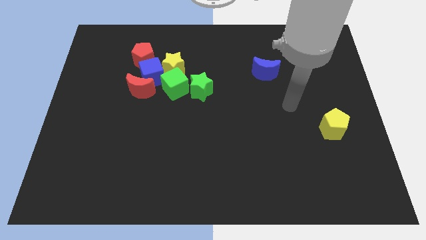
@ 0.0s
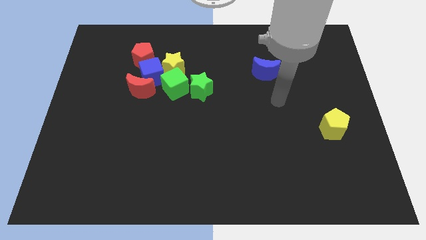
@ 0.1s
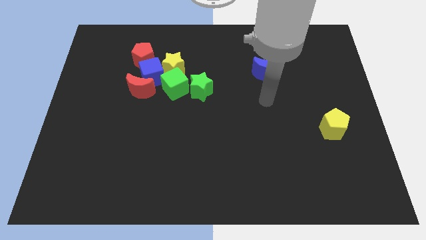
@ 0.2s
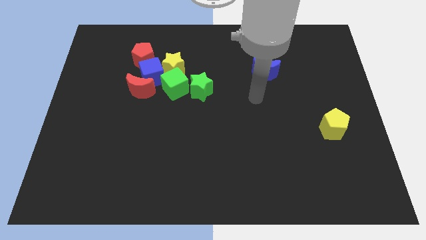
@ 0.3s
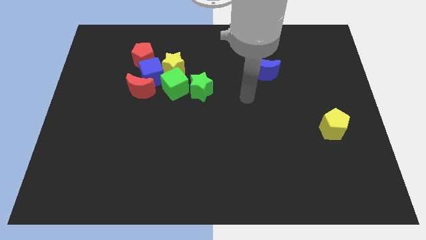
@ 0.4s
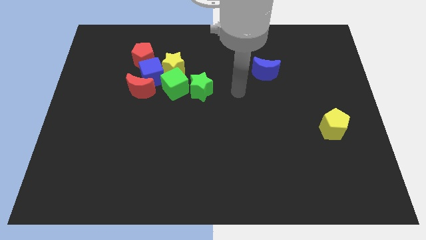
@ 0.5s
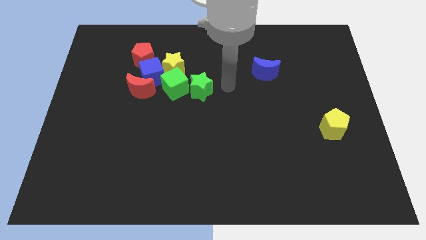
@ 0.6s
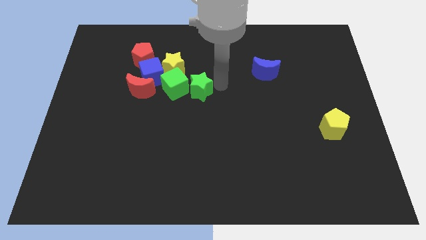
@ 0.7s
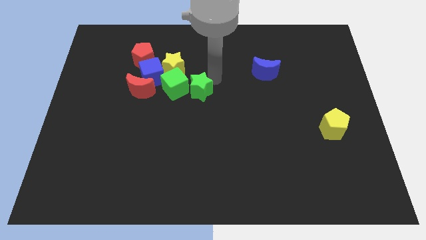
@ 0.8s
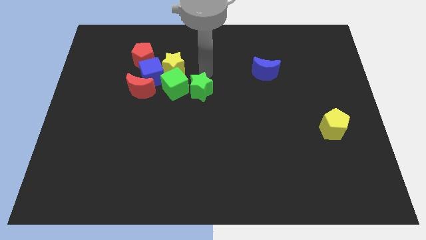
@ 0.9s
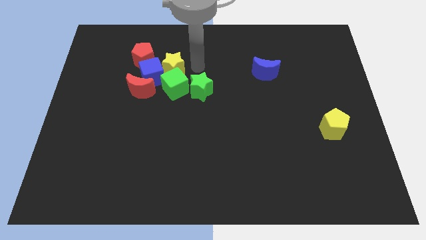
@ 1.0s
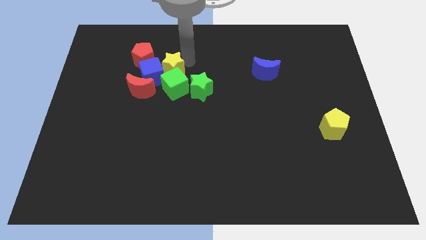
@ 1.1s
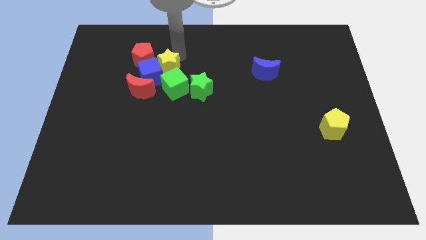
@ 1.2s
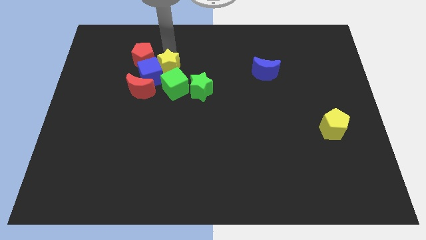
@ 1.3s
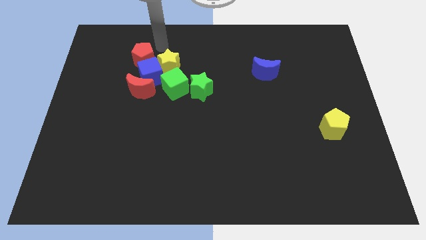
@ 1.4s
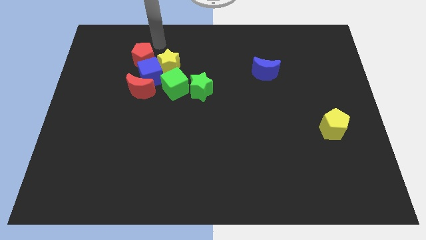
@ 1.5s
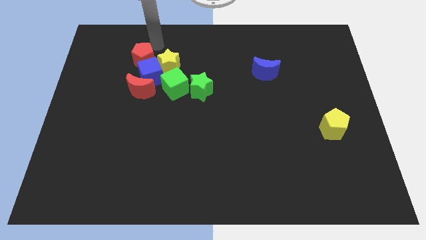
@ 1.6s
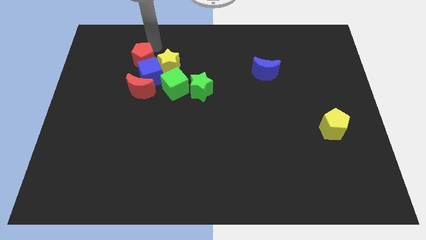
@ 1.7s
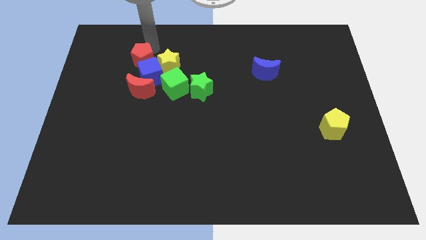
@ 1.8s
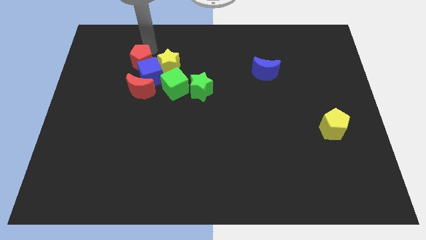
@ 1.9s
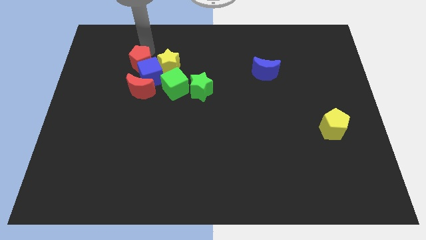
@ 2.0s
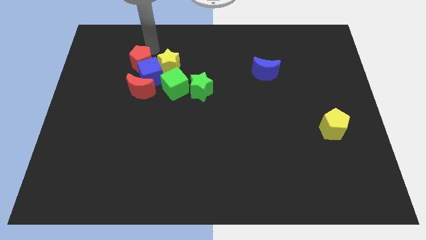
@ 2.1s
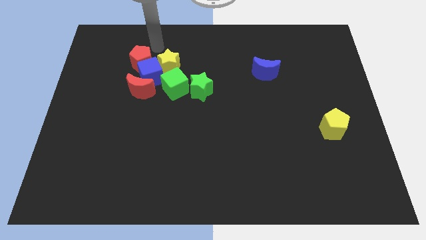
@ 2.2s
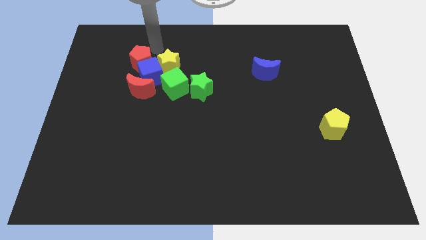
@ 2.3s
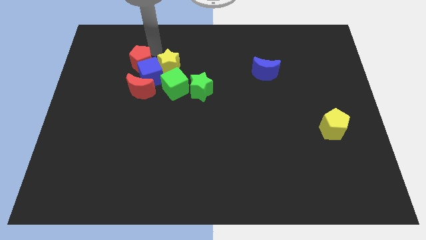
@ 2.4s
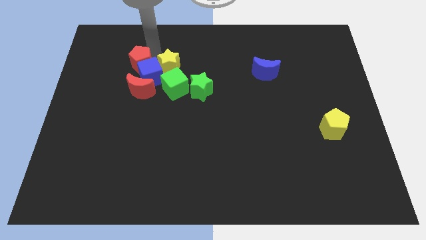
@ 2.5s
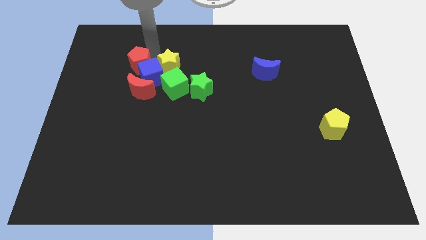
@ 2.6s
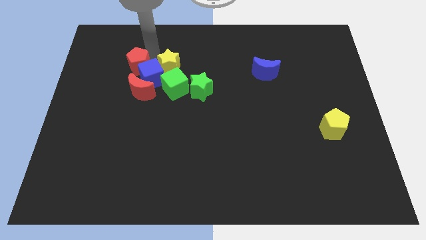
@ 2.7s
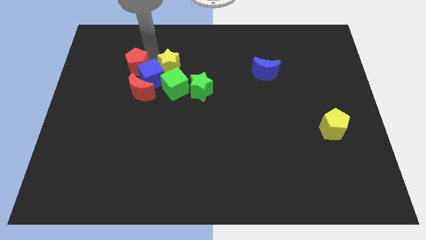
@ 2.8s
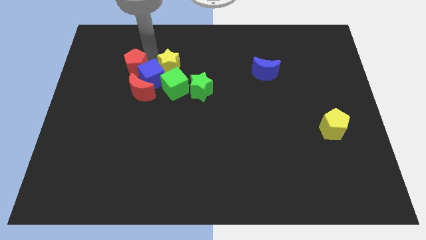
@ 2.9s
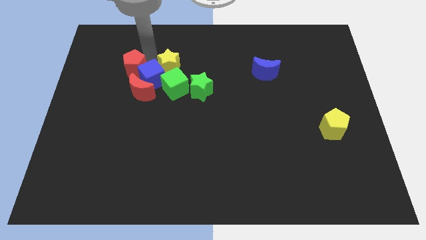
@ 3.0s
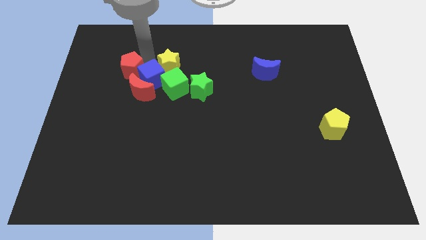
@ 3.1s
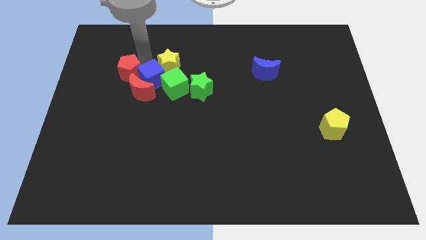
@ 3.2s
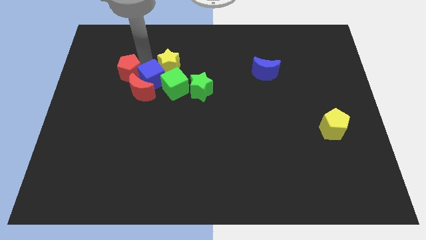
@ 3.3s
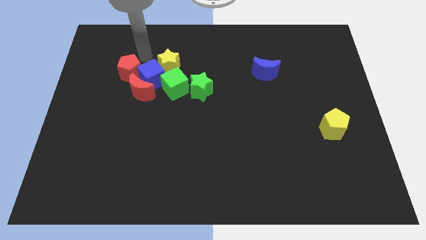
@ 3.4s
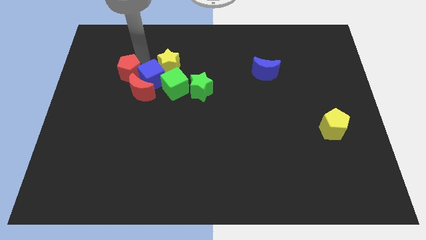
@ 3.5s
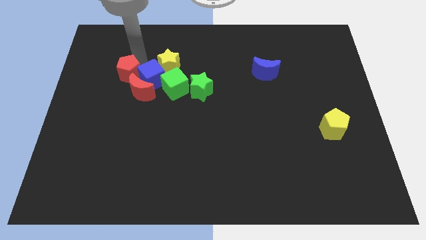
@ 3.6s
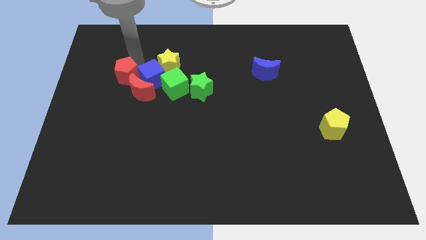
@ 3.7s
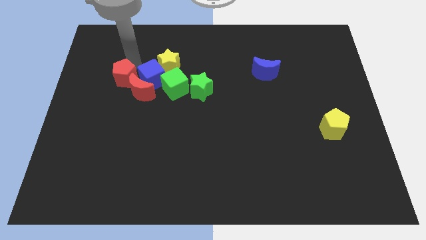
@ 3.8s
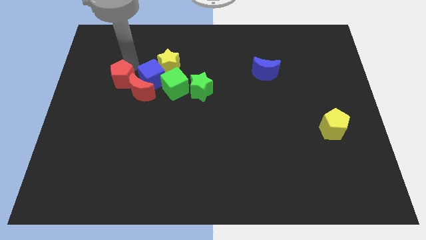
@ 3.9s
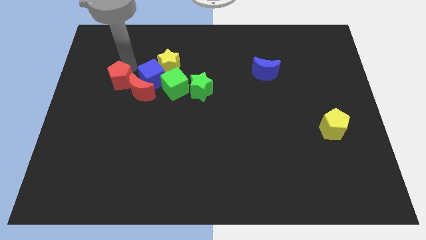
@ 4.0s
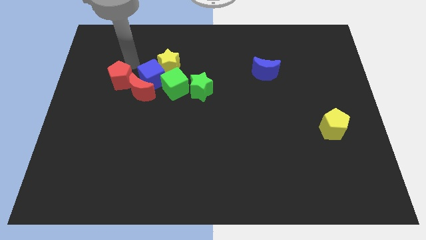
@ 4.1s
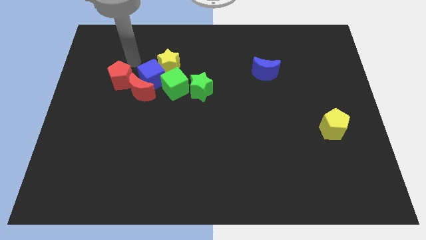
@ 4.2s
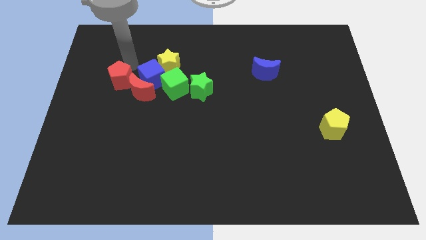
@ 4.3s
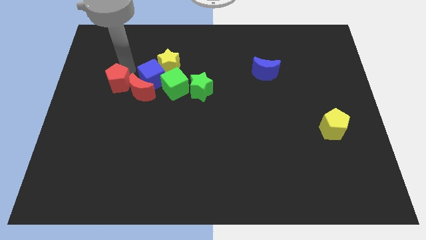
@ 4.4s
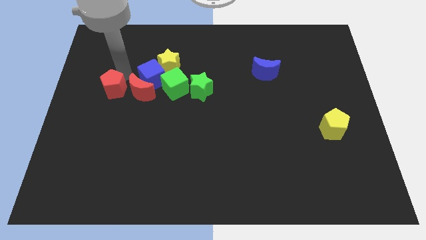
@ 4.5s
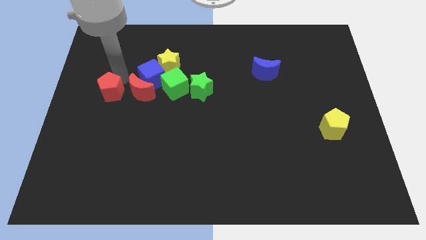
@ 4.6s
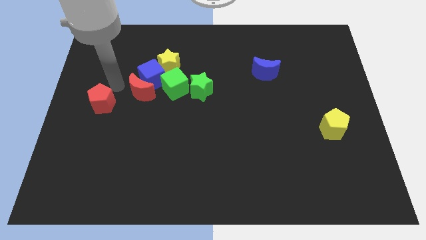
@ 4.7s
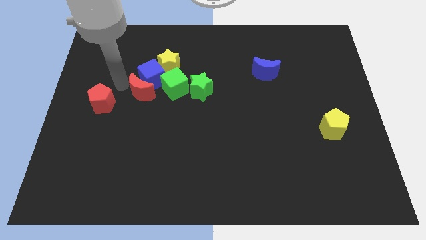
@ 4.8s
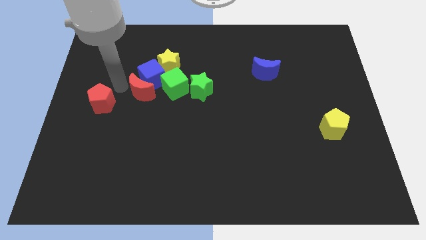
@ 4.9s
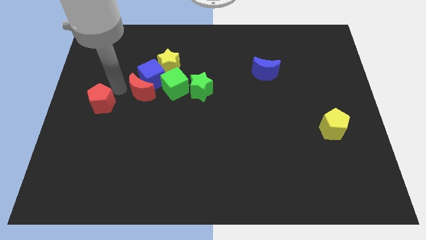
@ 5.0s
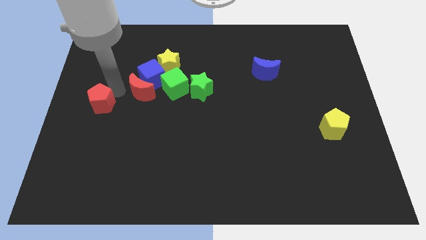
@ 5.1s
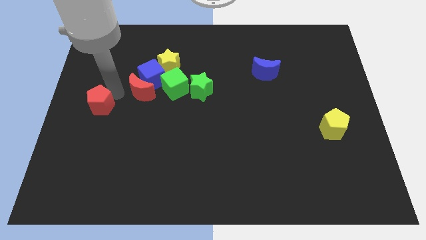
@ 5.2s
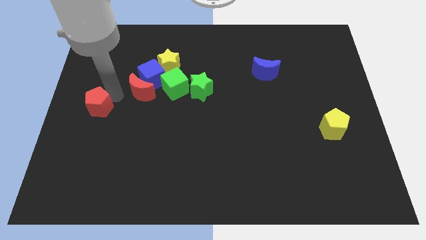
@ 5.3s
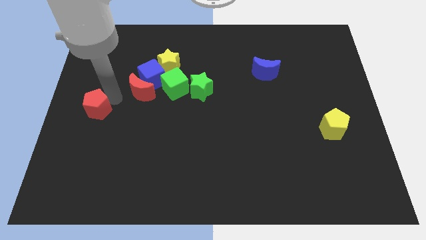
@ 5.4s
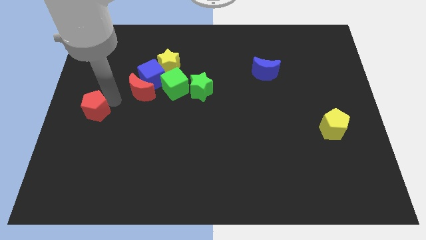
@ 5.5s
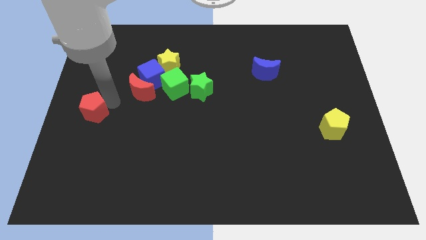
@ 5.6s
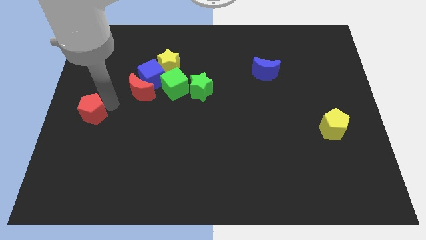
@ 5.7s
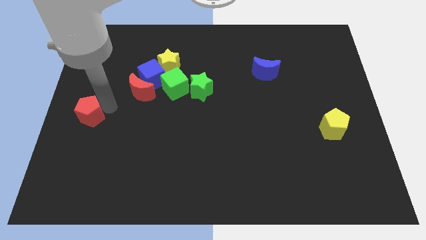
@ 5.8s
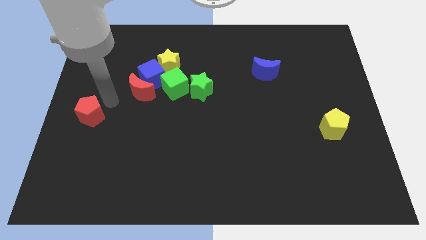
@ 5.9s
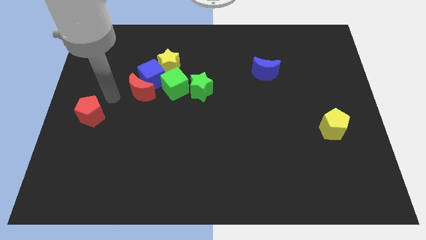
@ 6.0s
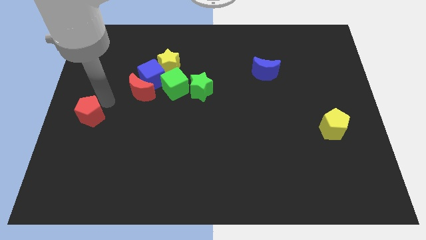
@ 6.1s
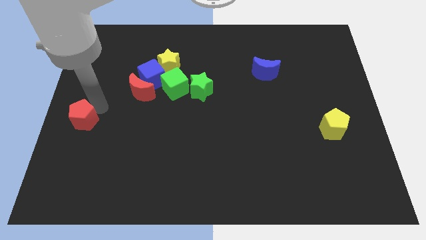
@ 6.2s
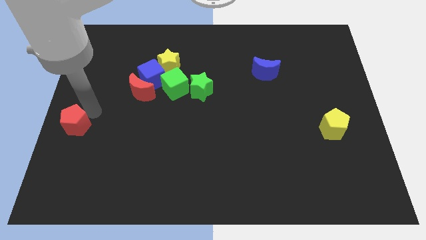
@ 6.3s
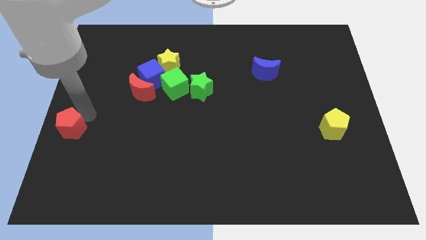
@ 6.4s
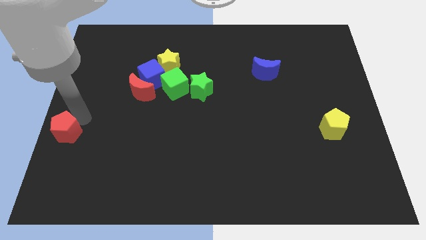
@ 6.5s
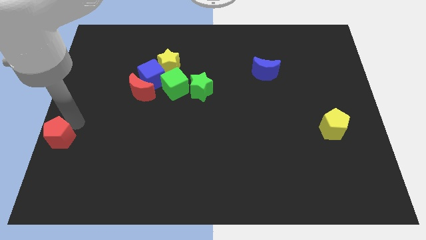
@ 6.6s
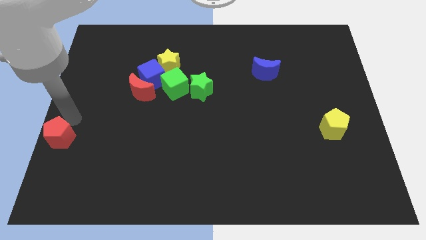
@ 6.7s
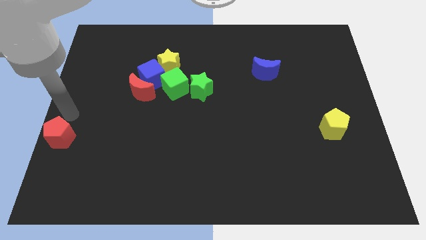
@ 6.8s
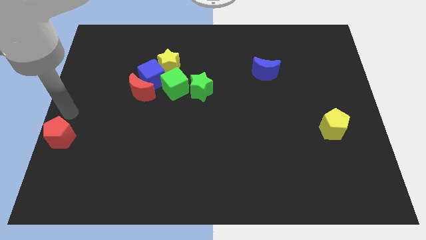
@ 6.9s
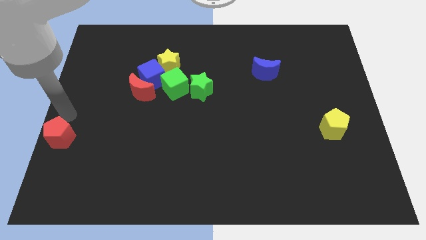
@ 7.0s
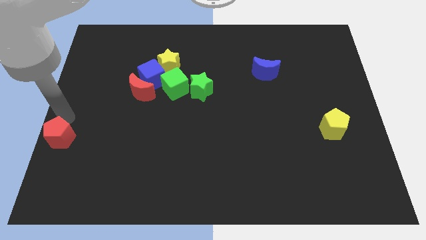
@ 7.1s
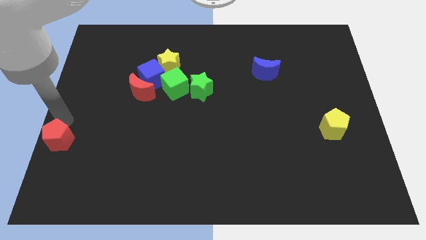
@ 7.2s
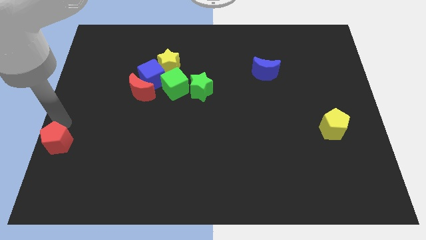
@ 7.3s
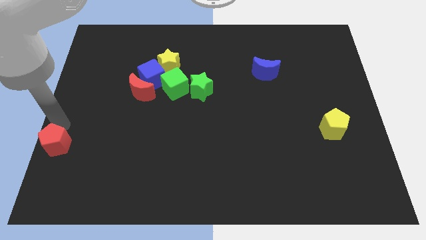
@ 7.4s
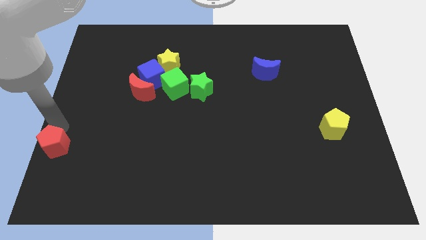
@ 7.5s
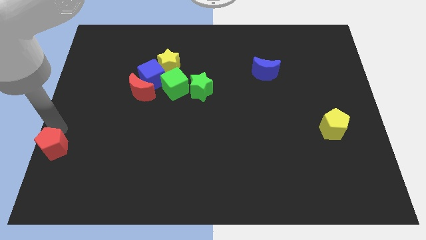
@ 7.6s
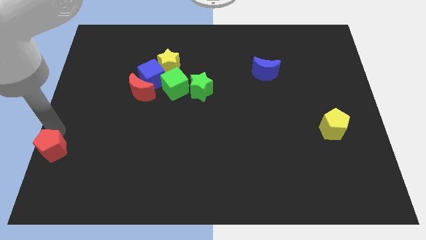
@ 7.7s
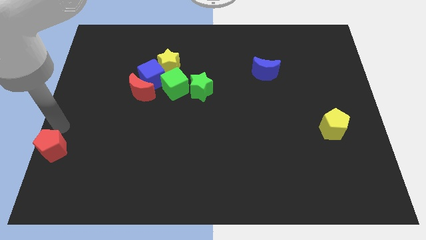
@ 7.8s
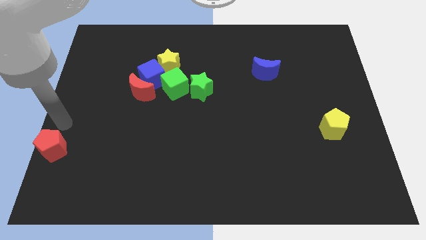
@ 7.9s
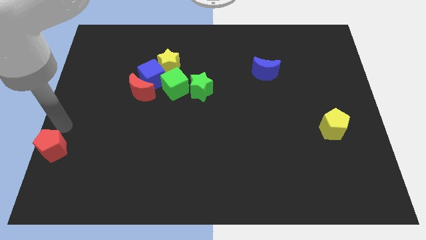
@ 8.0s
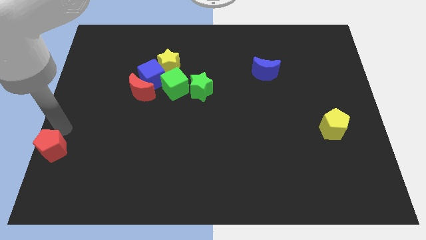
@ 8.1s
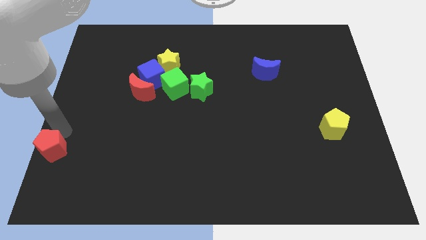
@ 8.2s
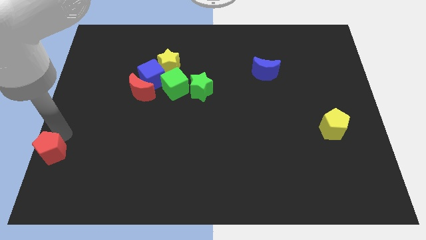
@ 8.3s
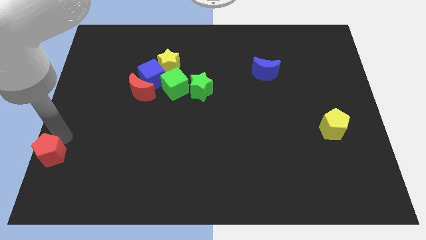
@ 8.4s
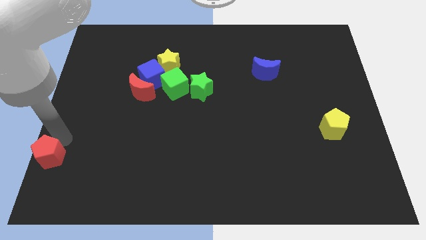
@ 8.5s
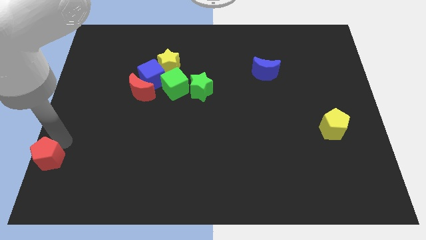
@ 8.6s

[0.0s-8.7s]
put the red pentagon to the bottom left

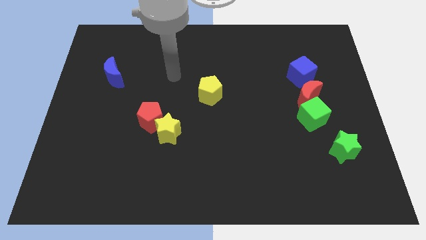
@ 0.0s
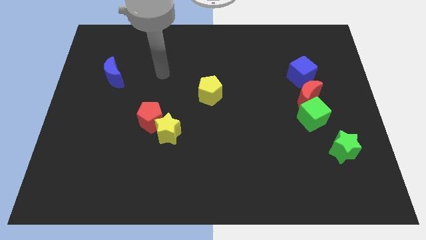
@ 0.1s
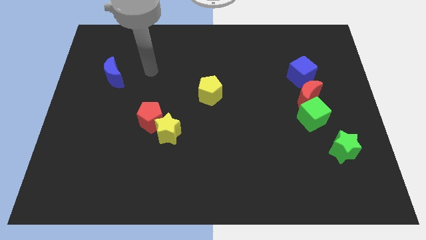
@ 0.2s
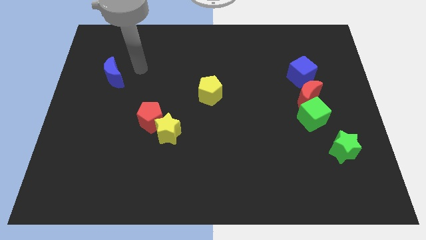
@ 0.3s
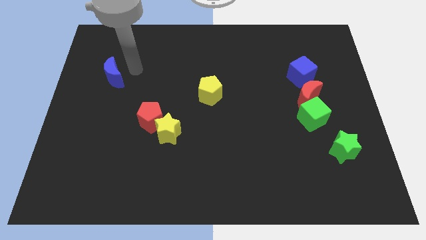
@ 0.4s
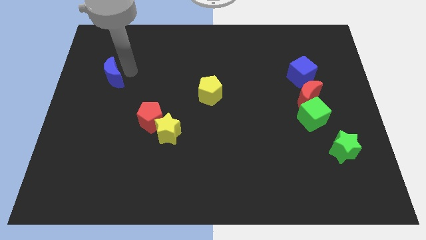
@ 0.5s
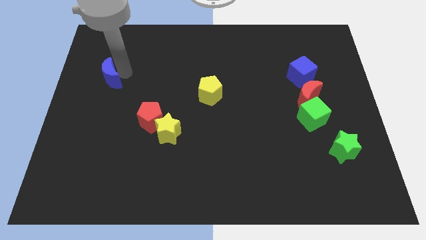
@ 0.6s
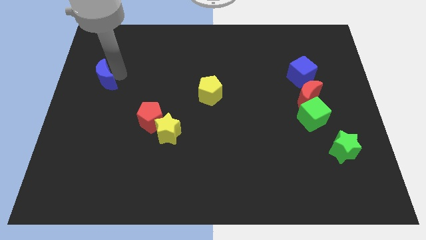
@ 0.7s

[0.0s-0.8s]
put the blue moon to the left side of the board
